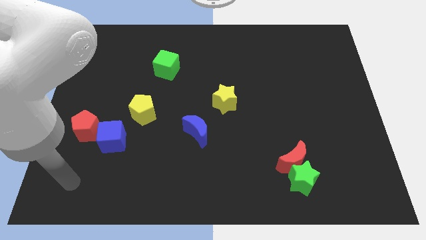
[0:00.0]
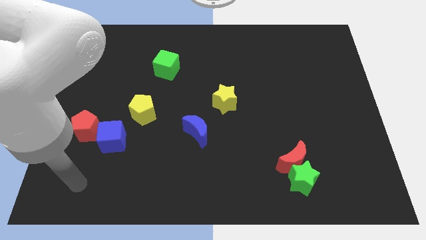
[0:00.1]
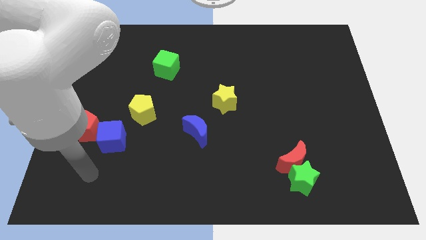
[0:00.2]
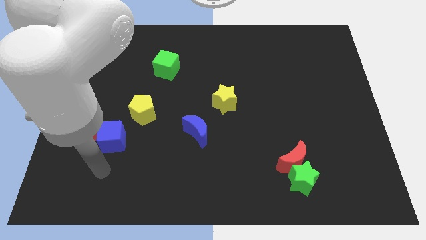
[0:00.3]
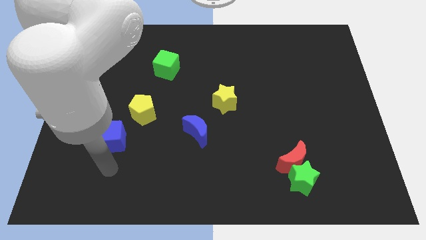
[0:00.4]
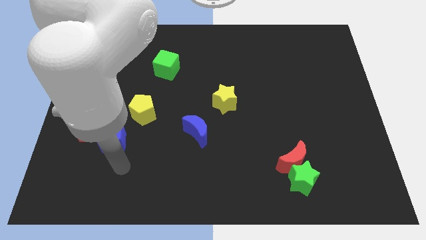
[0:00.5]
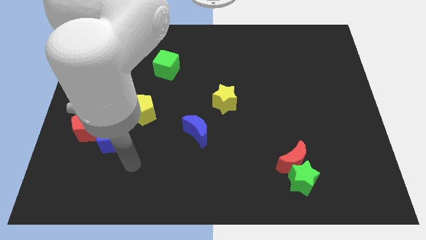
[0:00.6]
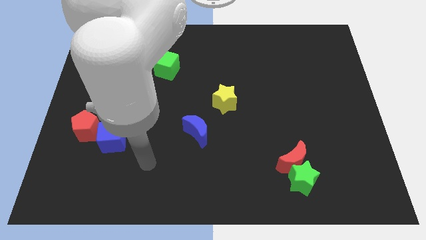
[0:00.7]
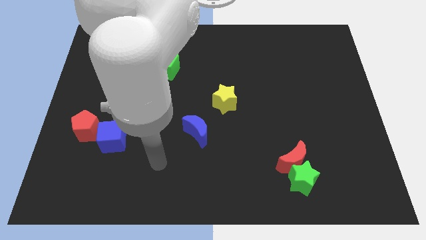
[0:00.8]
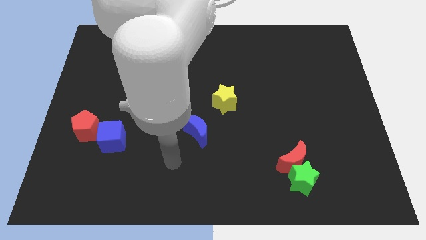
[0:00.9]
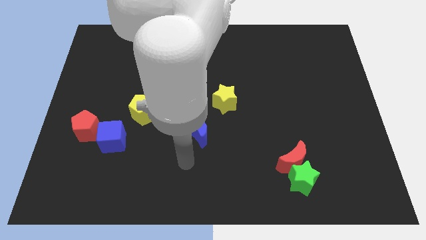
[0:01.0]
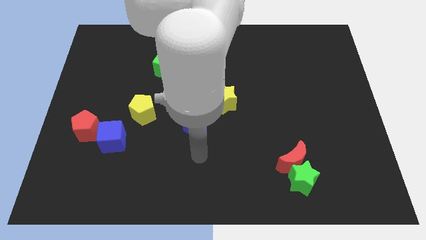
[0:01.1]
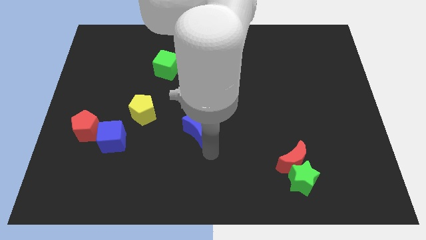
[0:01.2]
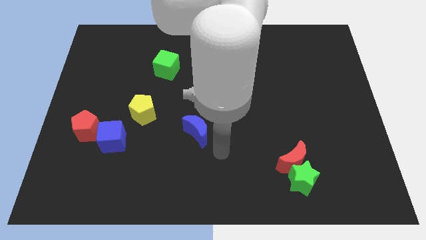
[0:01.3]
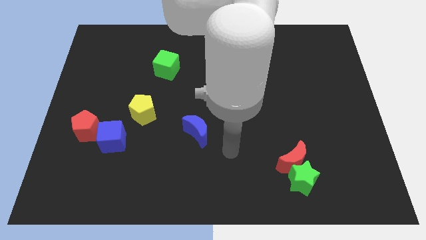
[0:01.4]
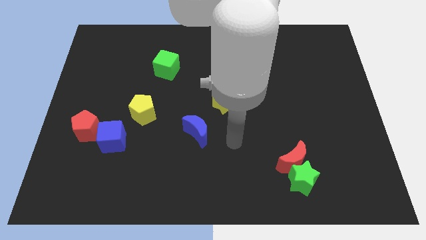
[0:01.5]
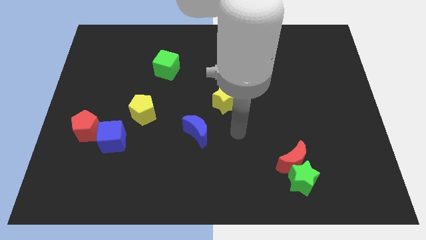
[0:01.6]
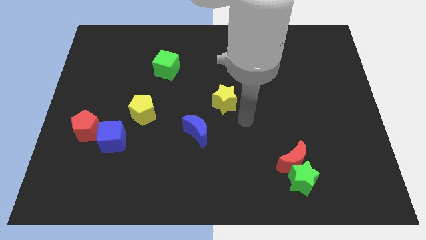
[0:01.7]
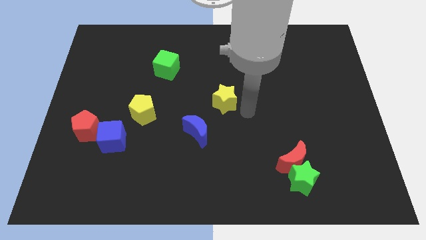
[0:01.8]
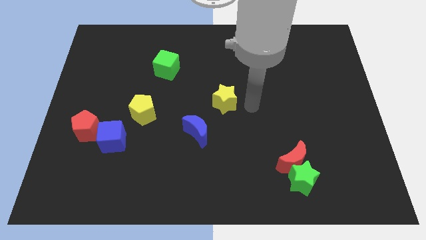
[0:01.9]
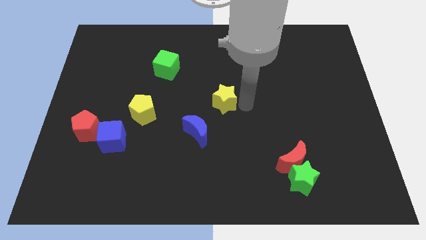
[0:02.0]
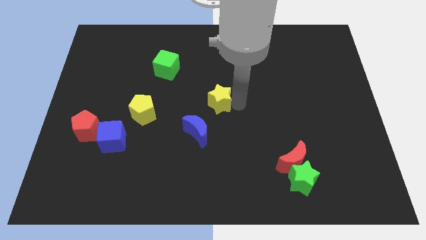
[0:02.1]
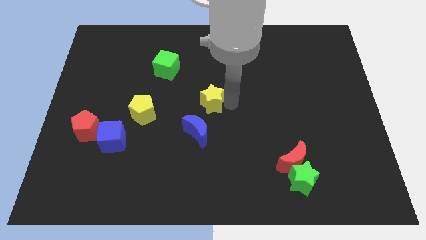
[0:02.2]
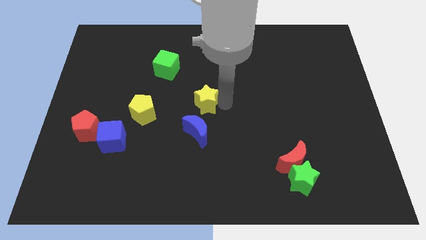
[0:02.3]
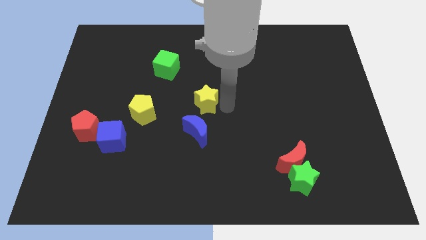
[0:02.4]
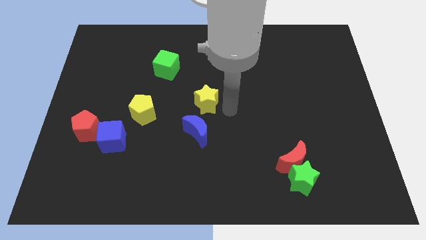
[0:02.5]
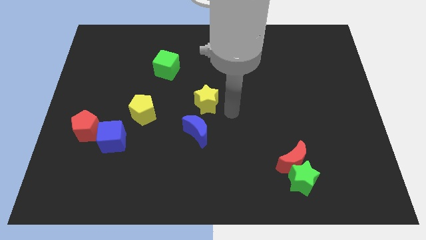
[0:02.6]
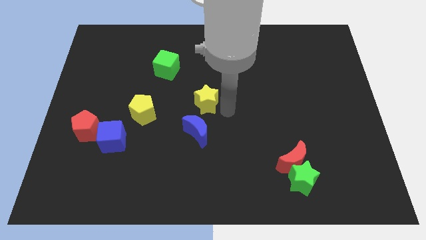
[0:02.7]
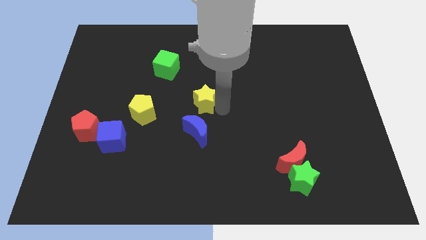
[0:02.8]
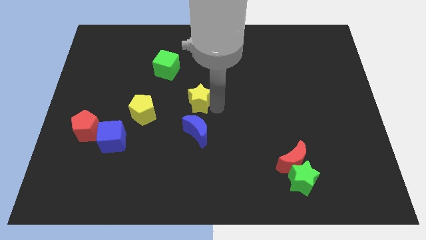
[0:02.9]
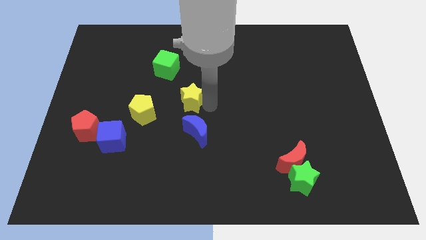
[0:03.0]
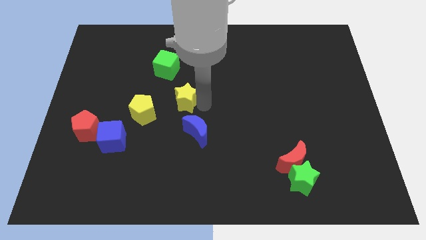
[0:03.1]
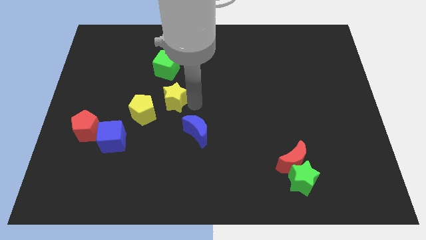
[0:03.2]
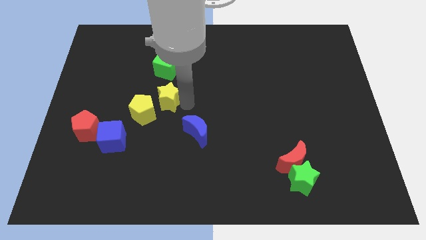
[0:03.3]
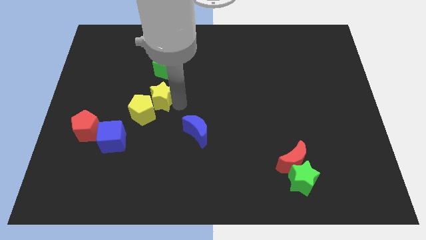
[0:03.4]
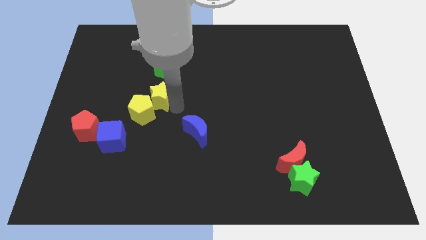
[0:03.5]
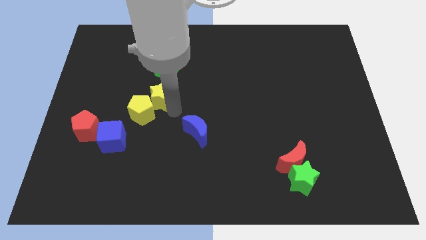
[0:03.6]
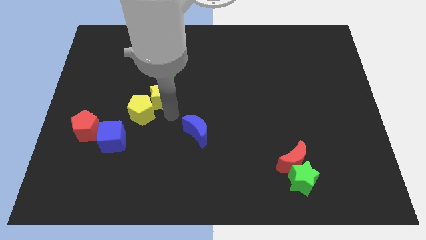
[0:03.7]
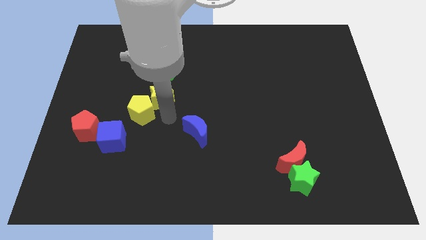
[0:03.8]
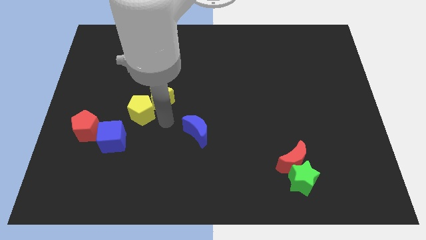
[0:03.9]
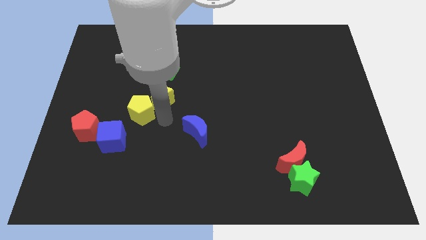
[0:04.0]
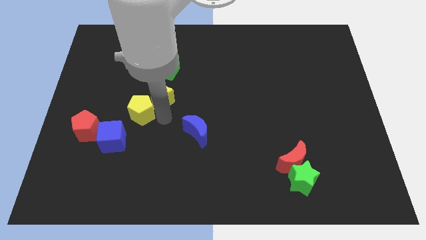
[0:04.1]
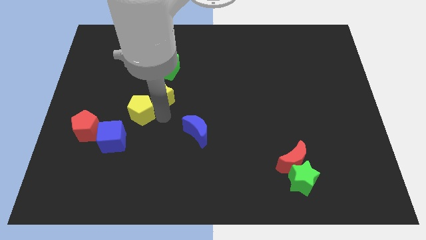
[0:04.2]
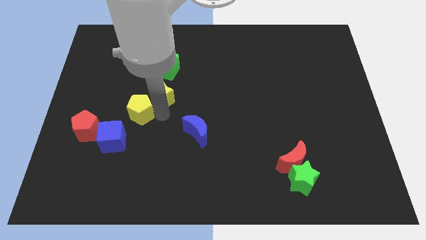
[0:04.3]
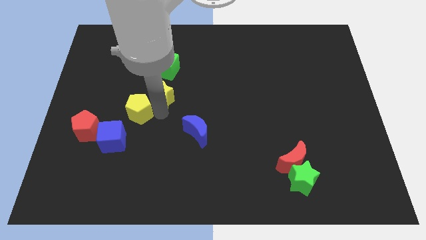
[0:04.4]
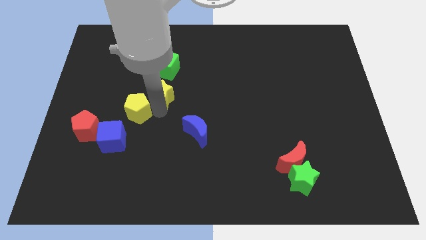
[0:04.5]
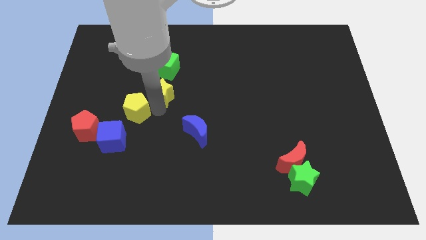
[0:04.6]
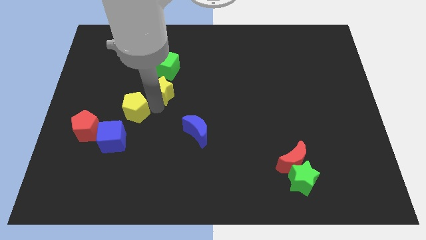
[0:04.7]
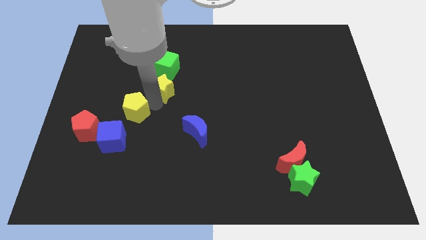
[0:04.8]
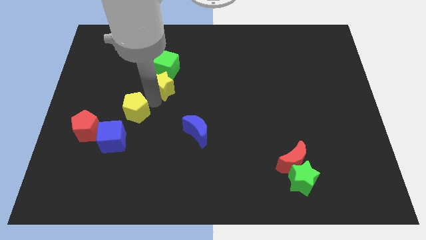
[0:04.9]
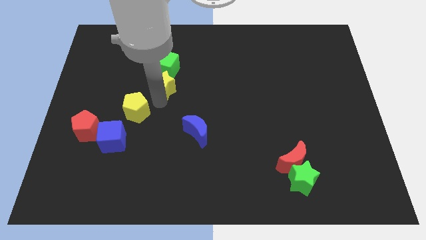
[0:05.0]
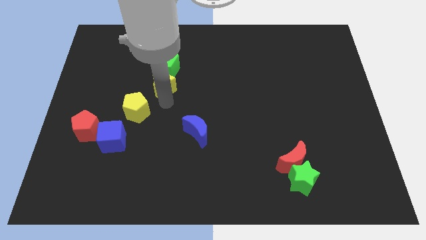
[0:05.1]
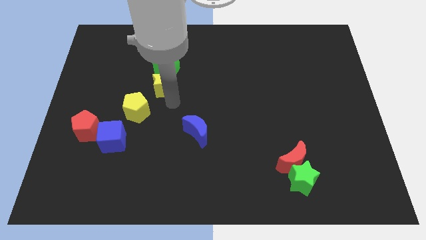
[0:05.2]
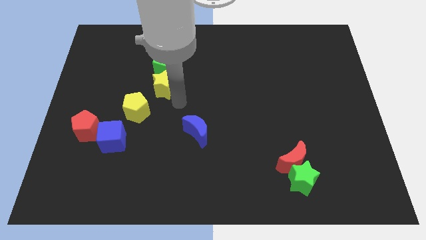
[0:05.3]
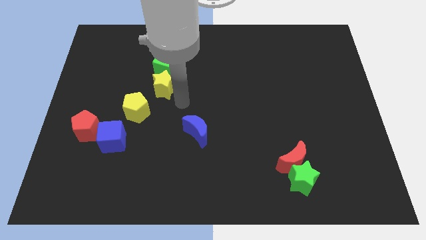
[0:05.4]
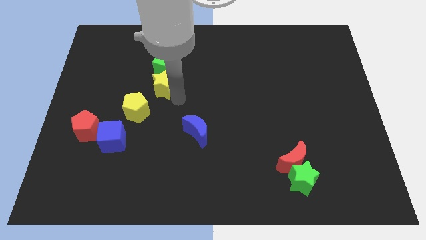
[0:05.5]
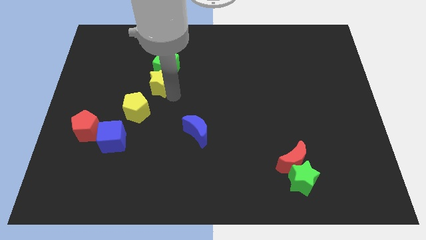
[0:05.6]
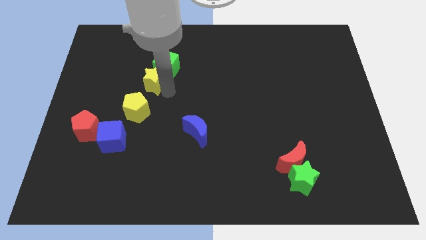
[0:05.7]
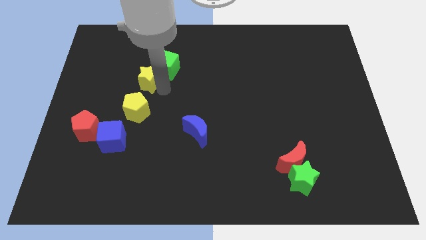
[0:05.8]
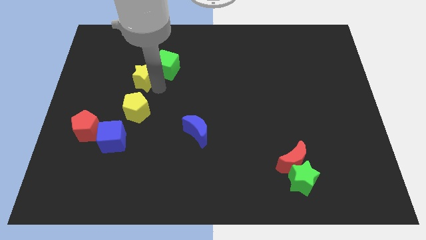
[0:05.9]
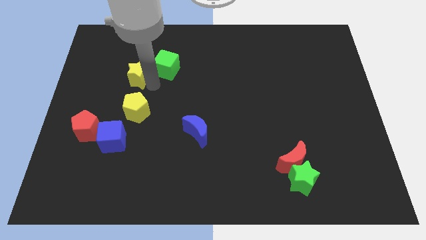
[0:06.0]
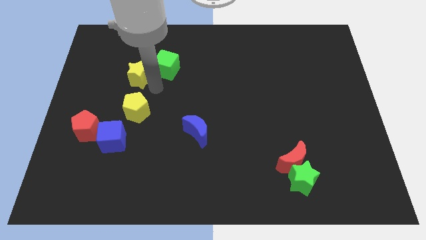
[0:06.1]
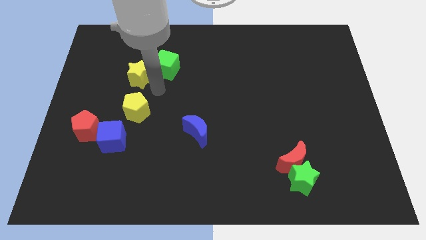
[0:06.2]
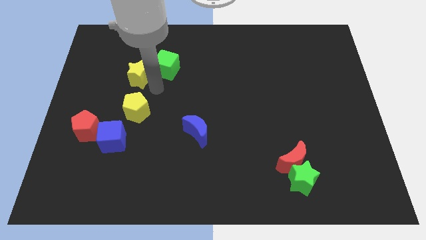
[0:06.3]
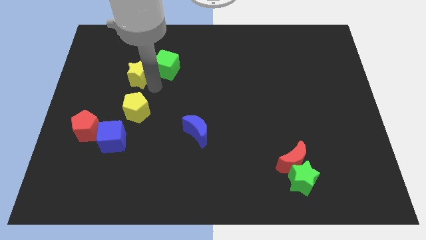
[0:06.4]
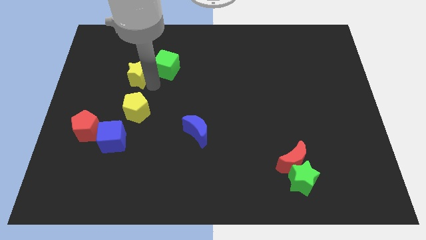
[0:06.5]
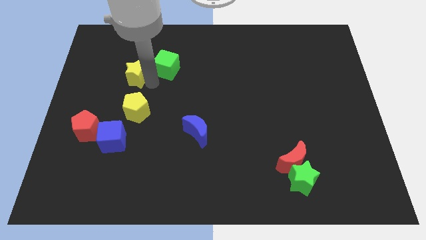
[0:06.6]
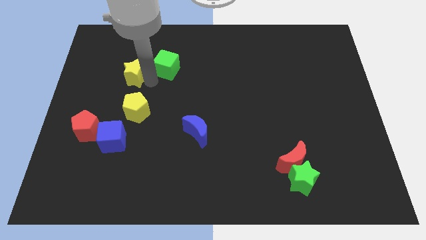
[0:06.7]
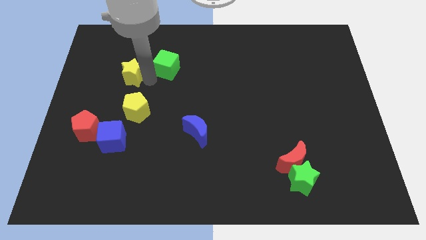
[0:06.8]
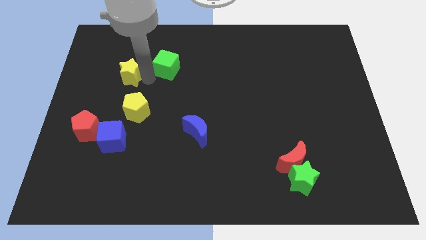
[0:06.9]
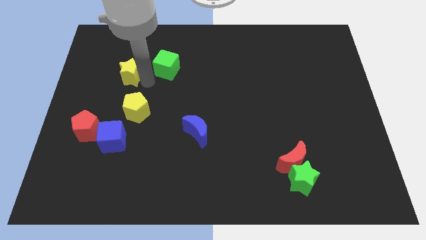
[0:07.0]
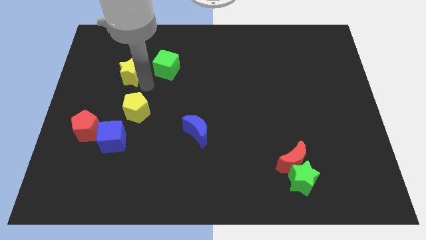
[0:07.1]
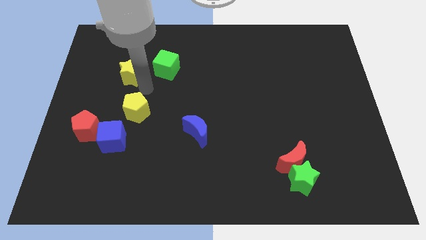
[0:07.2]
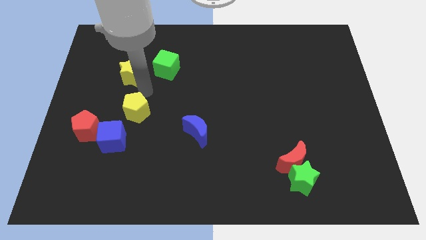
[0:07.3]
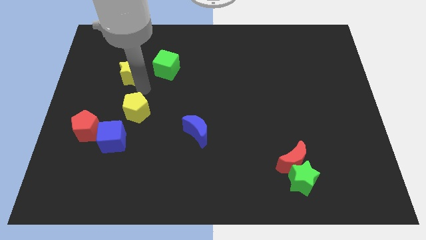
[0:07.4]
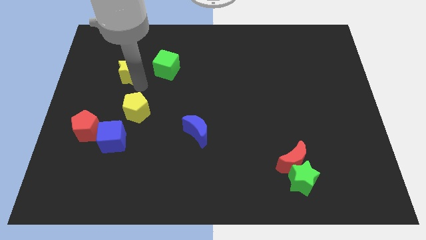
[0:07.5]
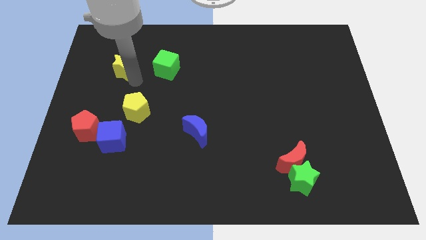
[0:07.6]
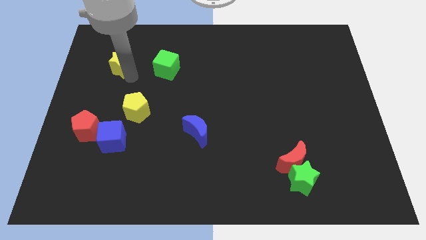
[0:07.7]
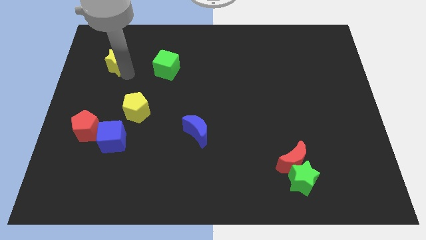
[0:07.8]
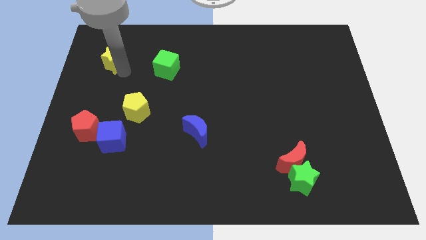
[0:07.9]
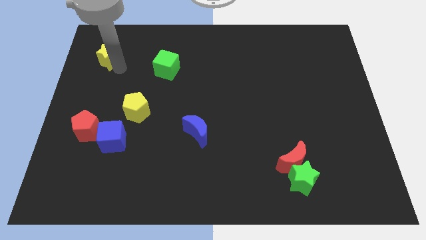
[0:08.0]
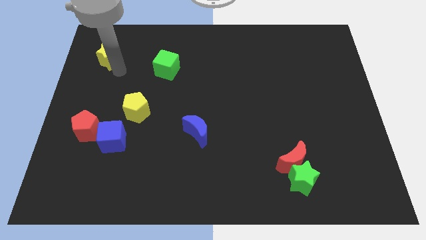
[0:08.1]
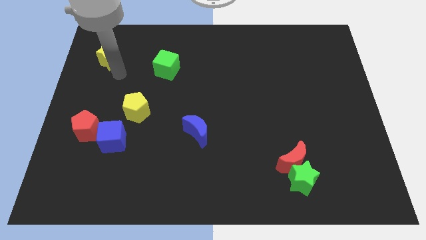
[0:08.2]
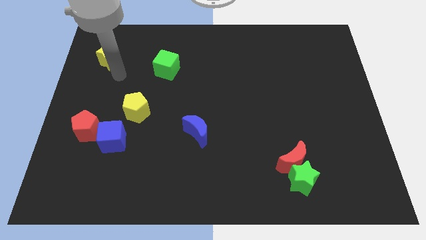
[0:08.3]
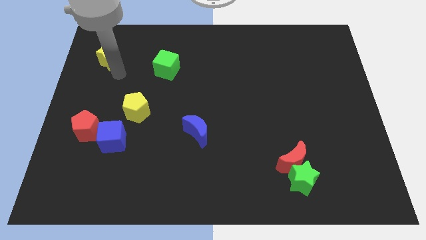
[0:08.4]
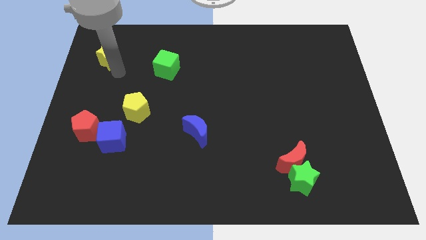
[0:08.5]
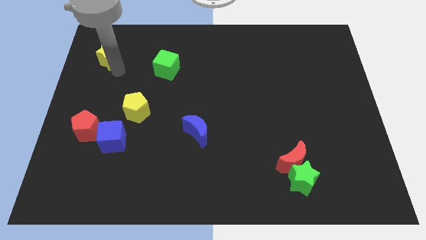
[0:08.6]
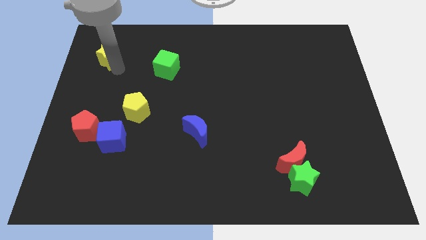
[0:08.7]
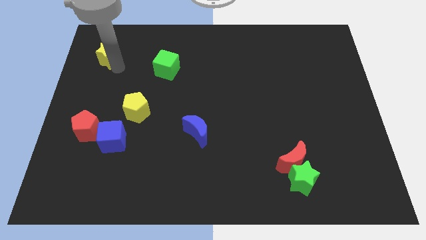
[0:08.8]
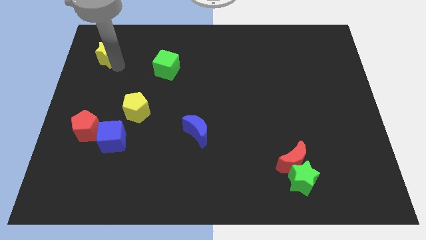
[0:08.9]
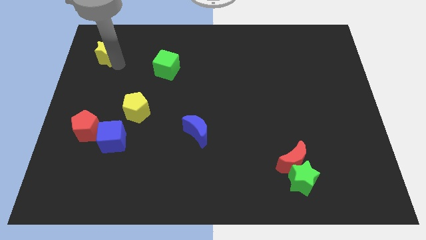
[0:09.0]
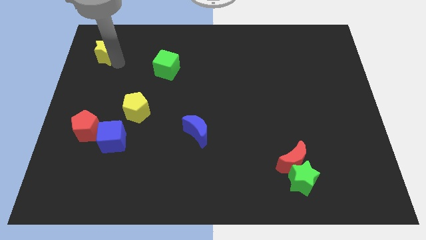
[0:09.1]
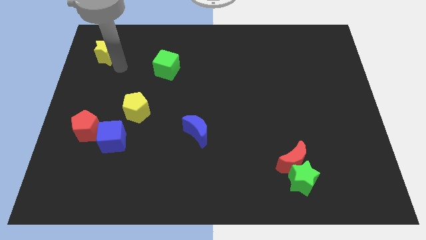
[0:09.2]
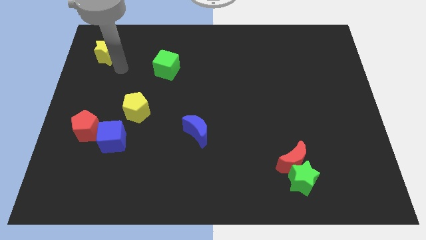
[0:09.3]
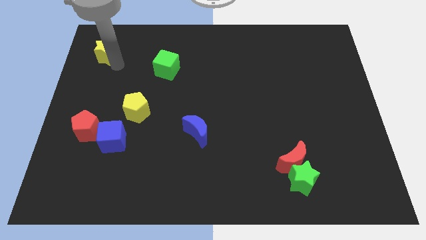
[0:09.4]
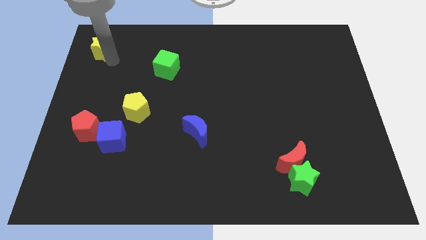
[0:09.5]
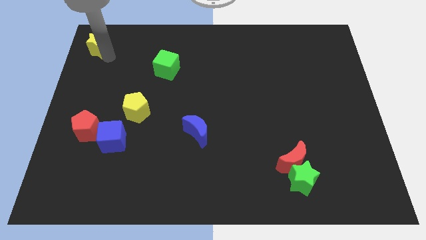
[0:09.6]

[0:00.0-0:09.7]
slide the yellow star to the top left of the board
